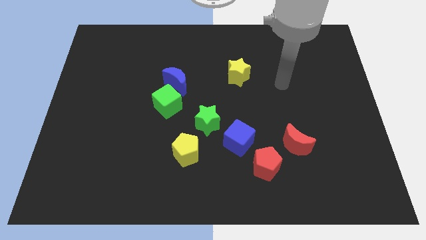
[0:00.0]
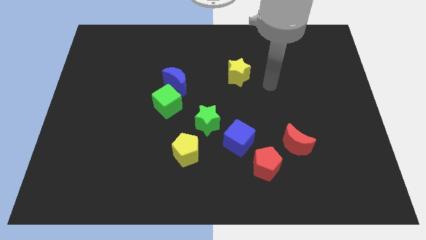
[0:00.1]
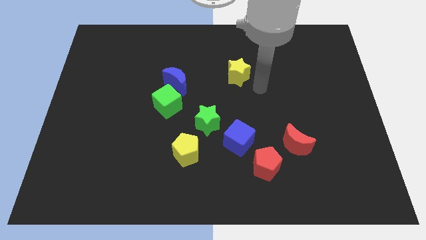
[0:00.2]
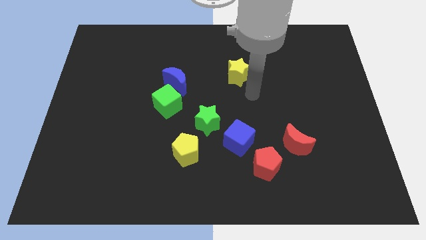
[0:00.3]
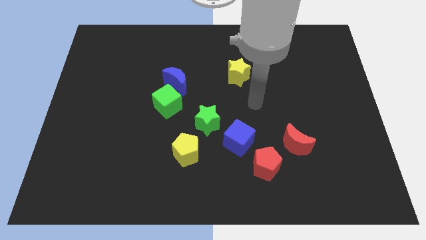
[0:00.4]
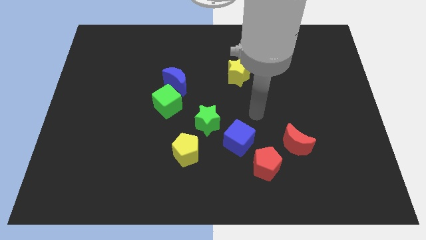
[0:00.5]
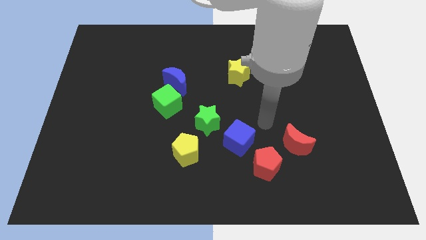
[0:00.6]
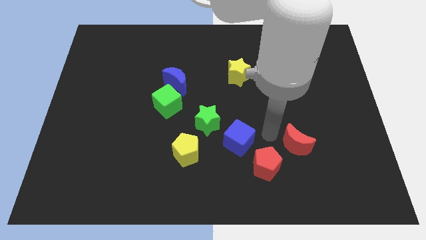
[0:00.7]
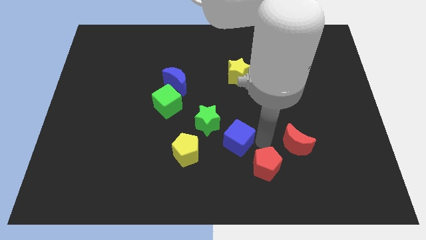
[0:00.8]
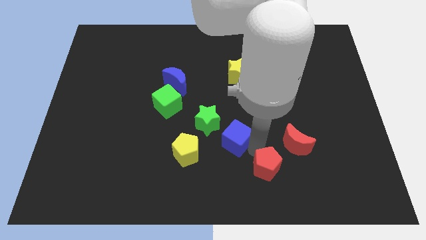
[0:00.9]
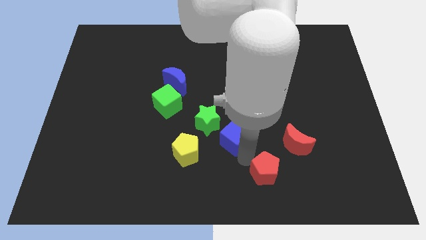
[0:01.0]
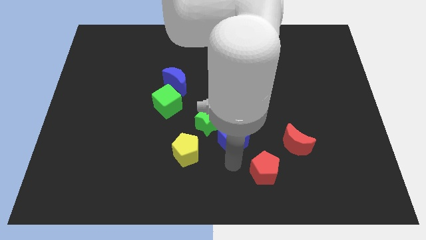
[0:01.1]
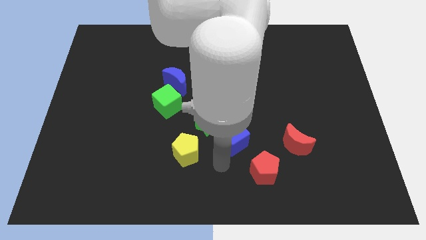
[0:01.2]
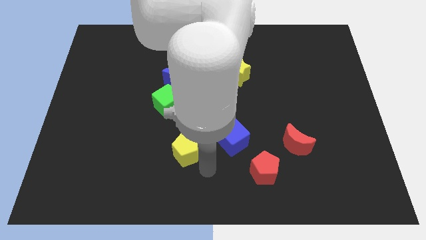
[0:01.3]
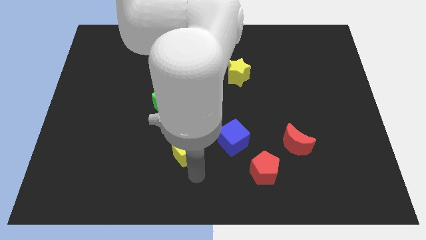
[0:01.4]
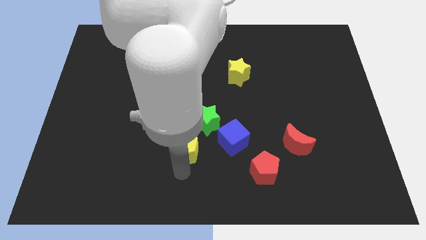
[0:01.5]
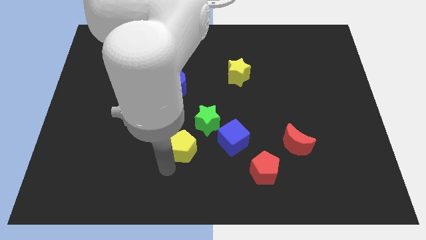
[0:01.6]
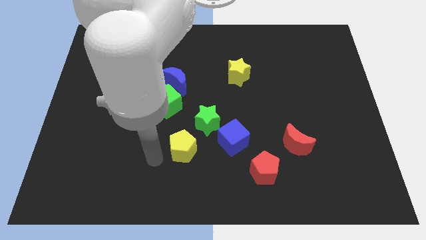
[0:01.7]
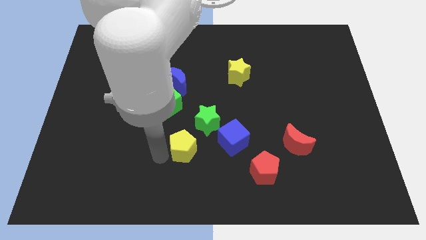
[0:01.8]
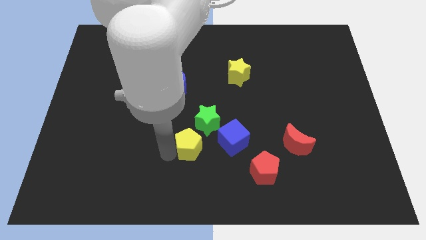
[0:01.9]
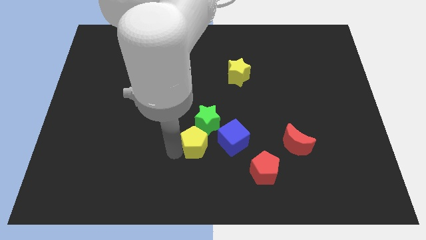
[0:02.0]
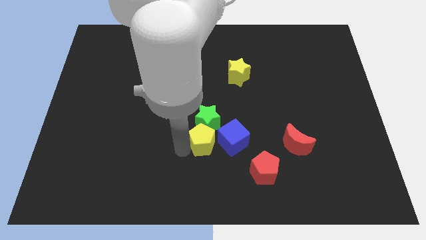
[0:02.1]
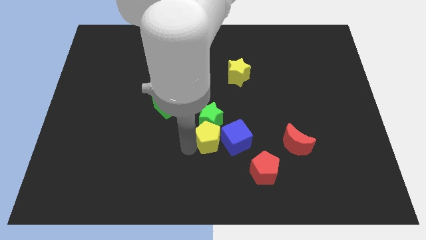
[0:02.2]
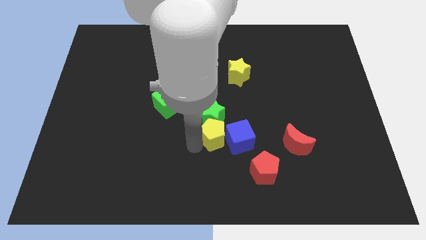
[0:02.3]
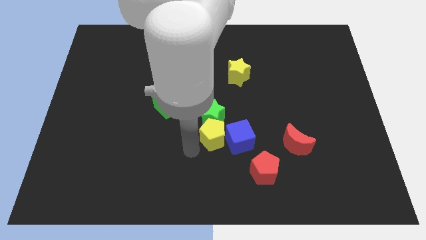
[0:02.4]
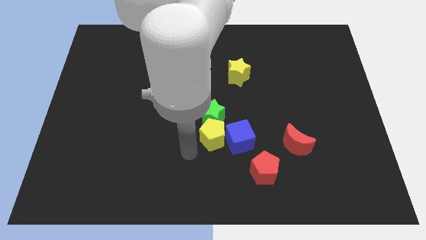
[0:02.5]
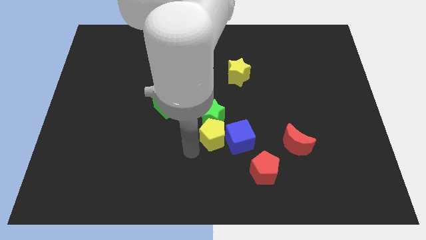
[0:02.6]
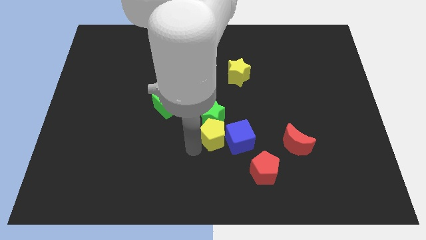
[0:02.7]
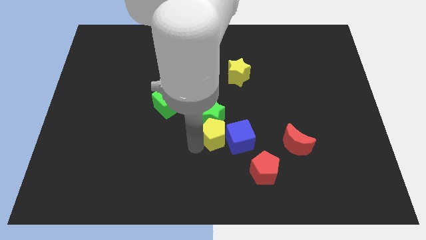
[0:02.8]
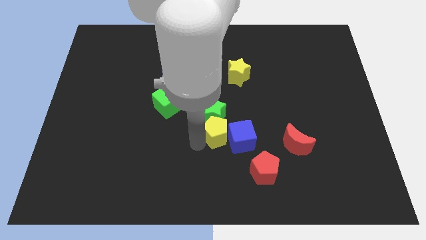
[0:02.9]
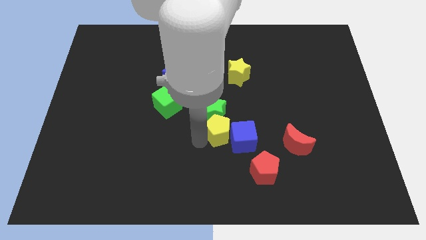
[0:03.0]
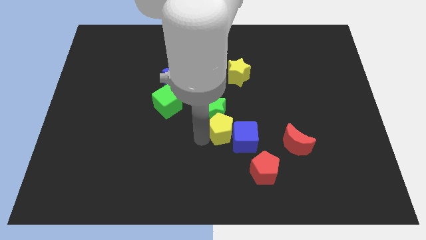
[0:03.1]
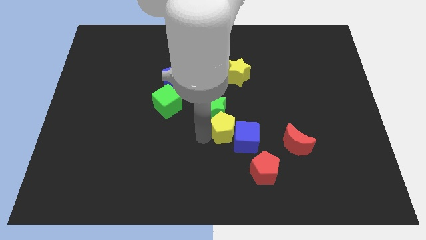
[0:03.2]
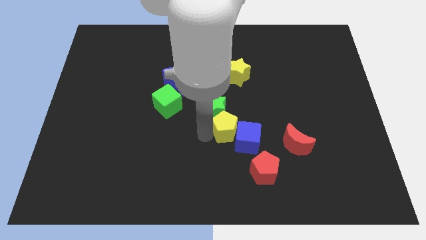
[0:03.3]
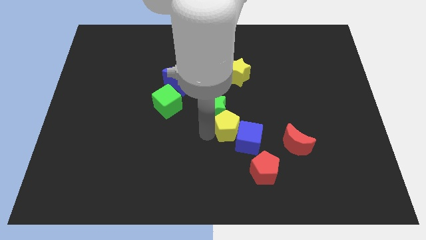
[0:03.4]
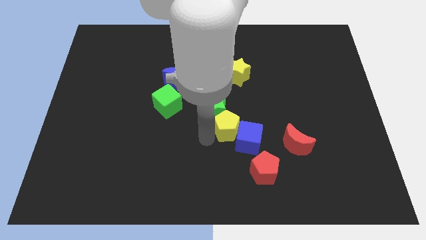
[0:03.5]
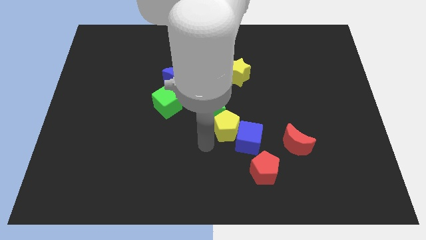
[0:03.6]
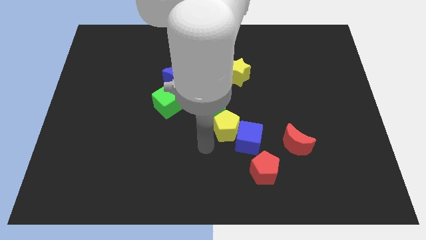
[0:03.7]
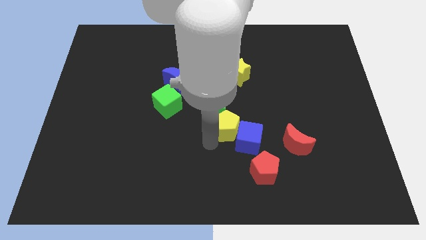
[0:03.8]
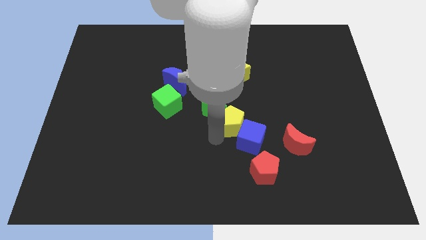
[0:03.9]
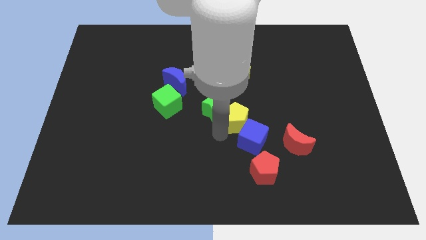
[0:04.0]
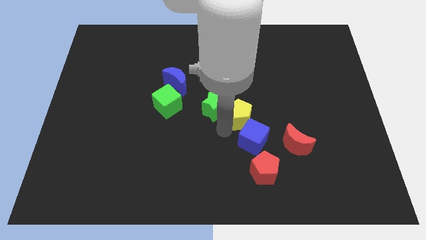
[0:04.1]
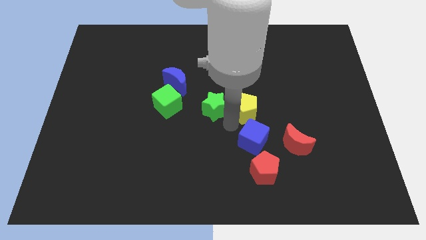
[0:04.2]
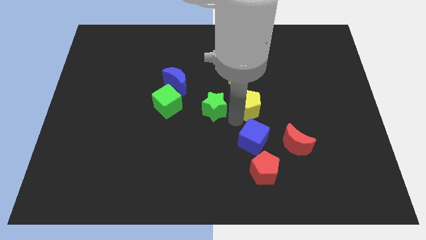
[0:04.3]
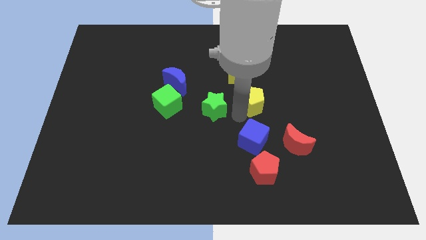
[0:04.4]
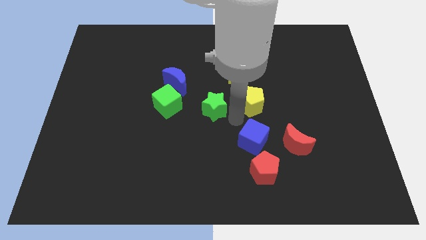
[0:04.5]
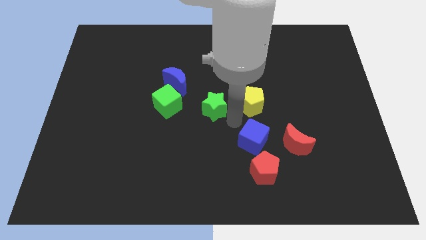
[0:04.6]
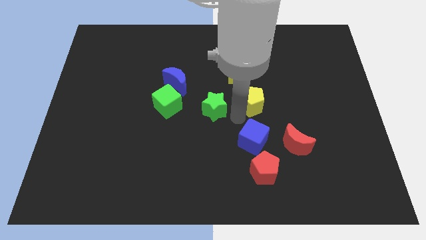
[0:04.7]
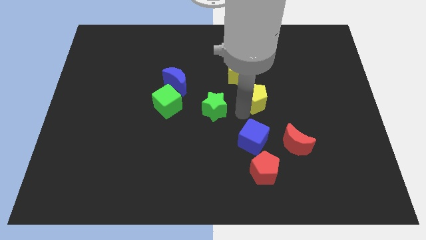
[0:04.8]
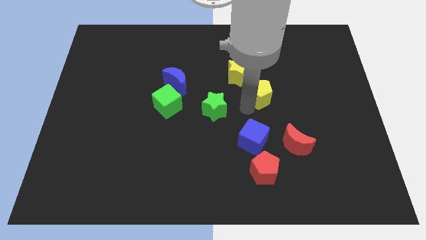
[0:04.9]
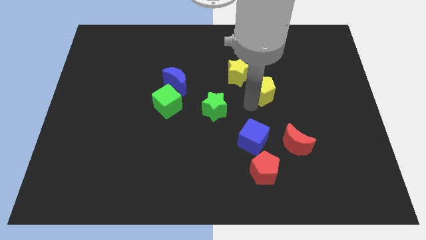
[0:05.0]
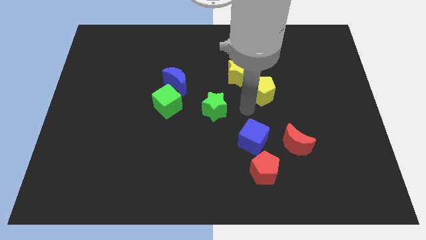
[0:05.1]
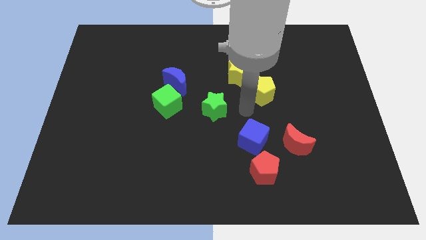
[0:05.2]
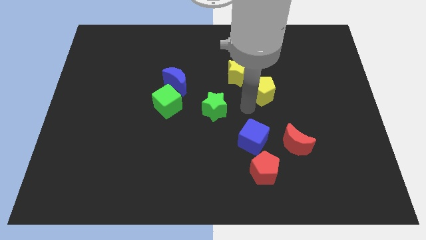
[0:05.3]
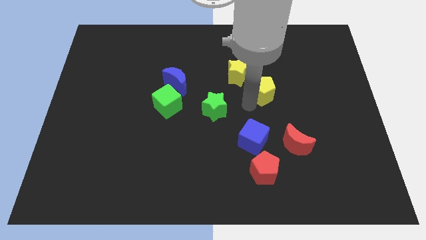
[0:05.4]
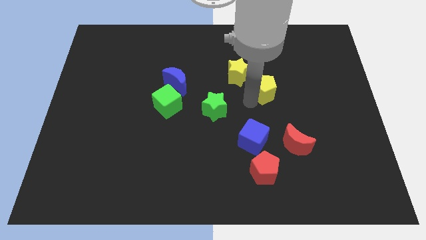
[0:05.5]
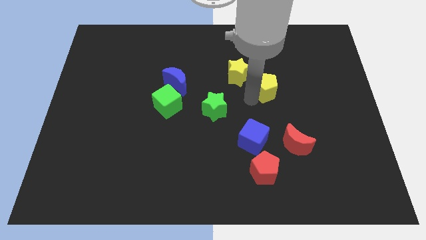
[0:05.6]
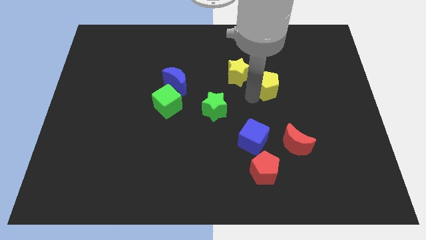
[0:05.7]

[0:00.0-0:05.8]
move the yellow pentagon to the right of the yellow star

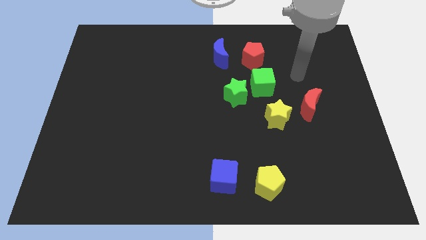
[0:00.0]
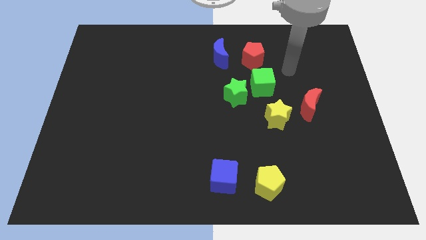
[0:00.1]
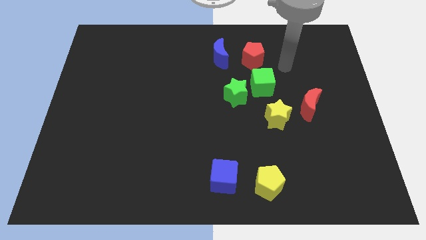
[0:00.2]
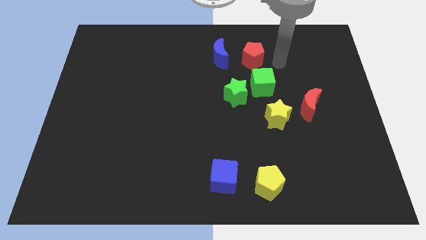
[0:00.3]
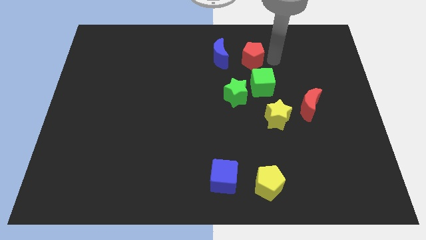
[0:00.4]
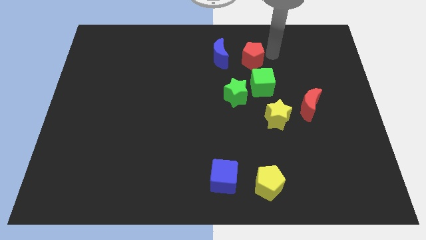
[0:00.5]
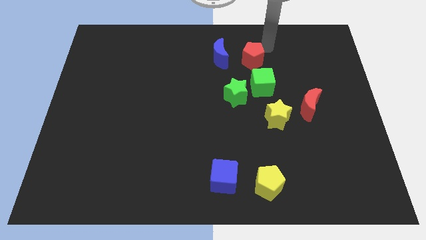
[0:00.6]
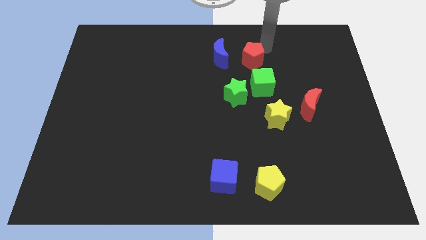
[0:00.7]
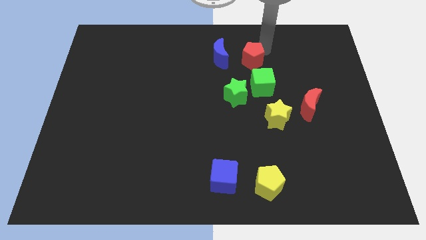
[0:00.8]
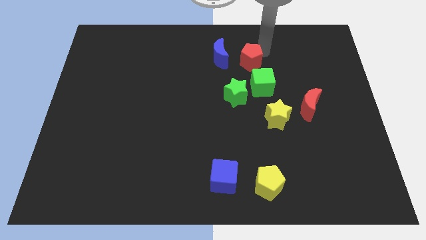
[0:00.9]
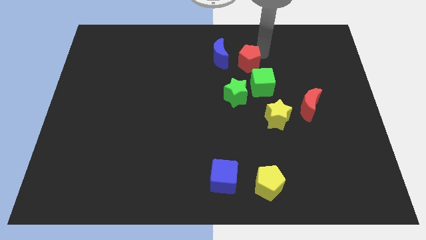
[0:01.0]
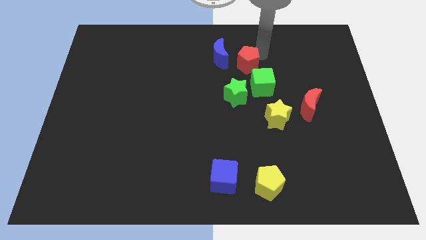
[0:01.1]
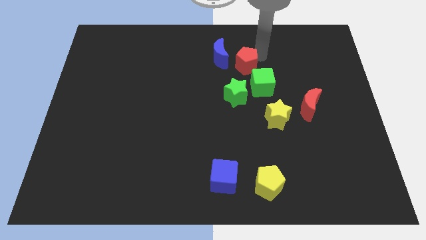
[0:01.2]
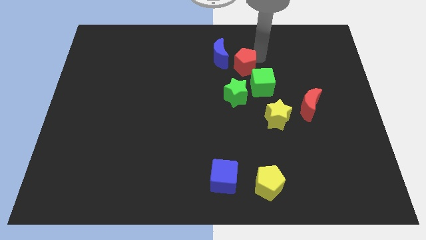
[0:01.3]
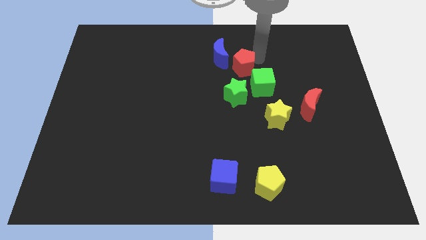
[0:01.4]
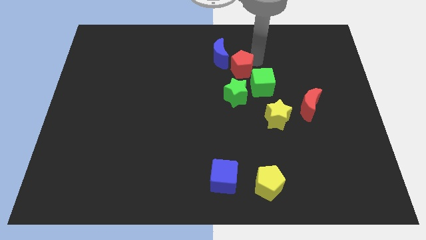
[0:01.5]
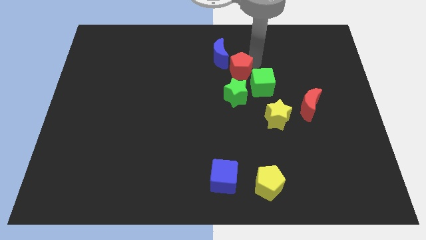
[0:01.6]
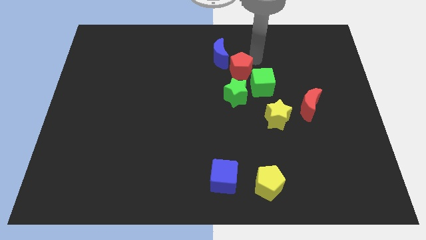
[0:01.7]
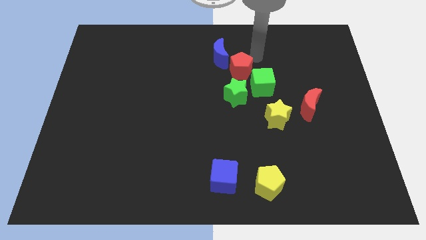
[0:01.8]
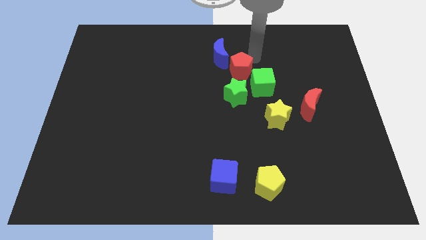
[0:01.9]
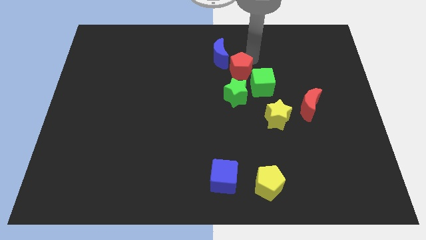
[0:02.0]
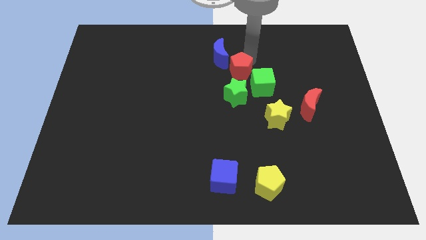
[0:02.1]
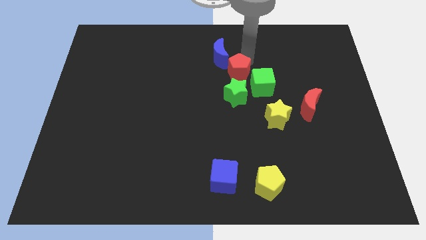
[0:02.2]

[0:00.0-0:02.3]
slide the red pentagon to the left side of the green cube
